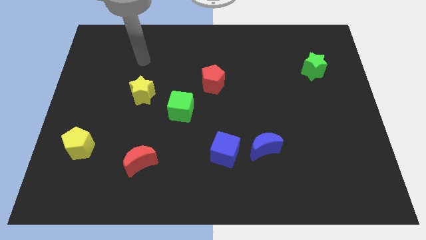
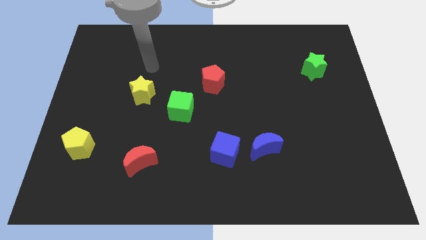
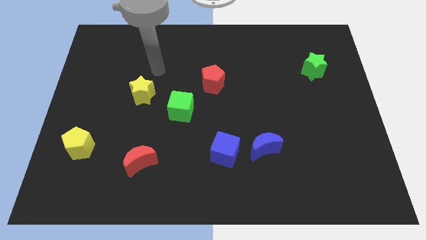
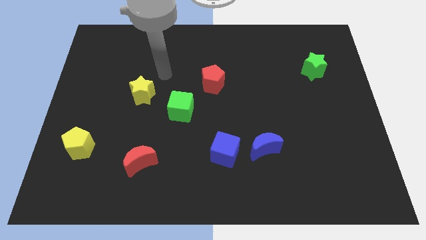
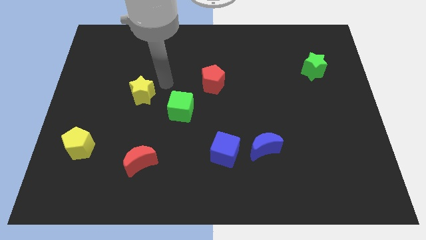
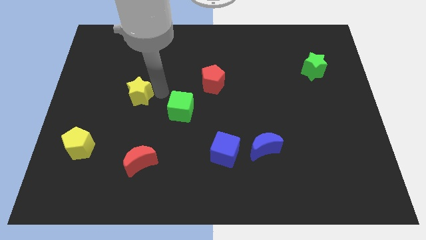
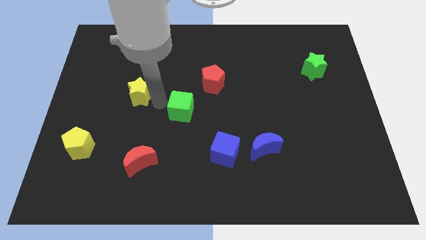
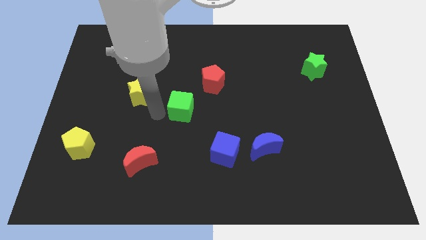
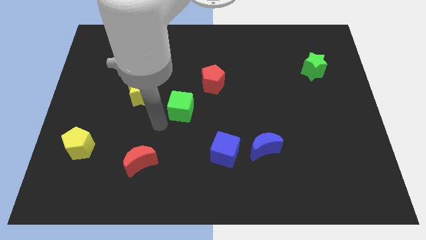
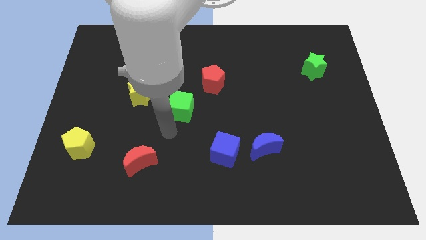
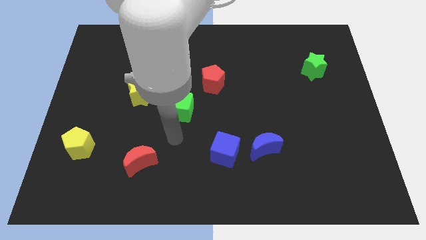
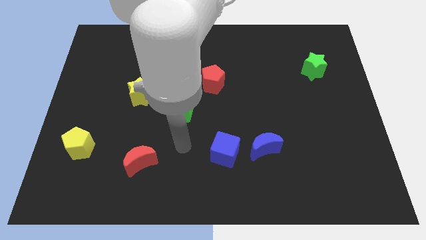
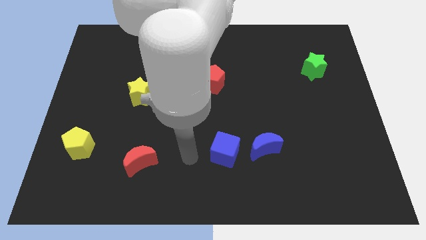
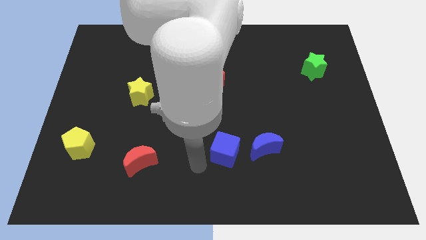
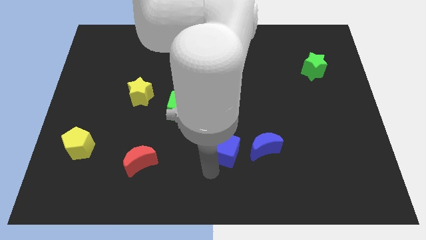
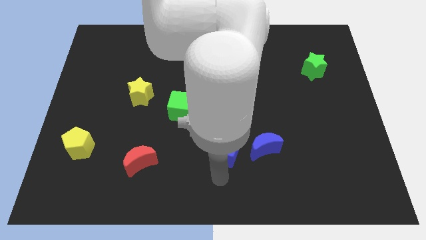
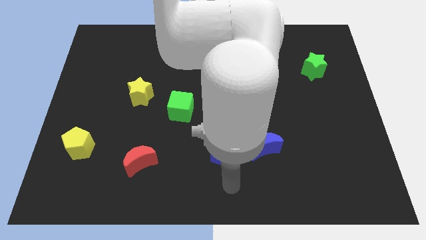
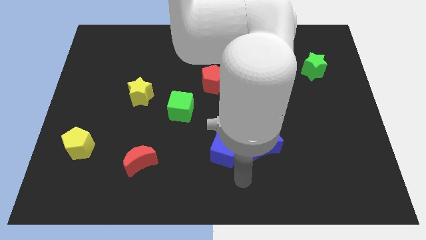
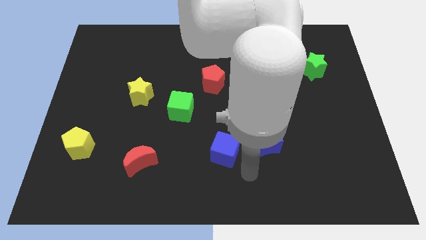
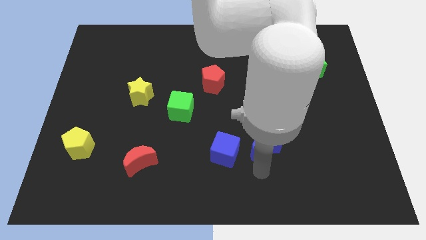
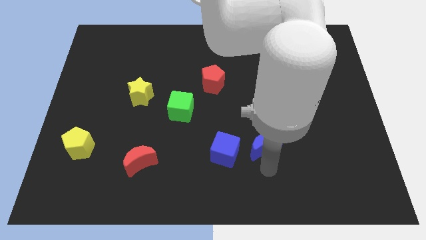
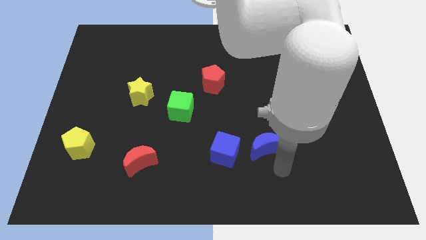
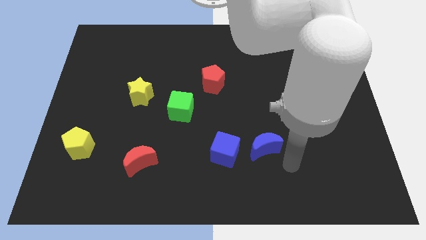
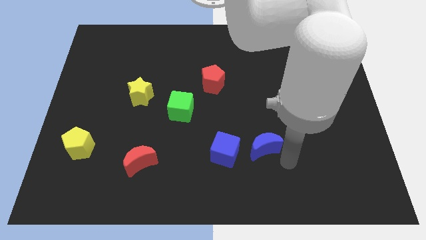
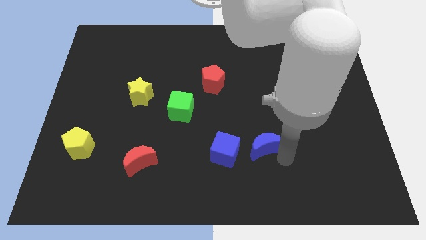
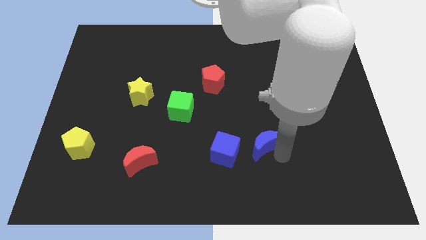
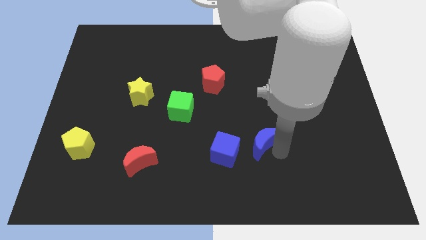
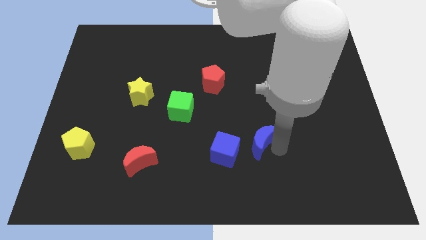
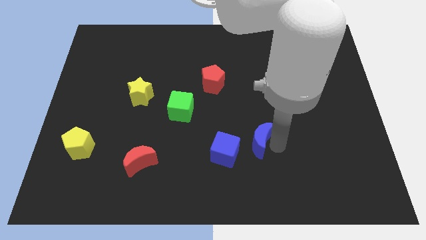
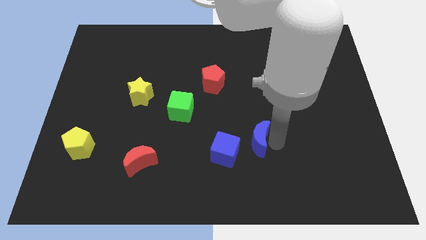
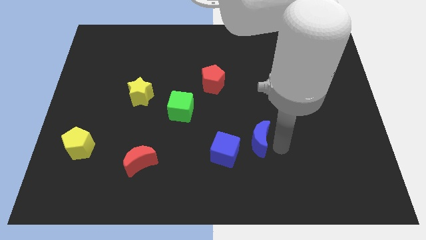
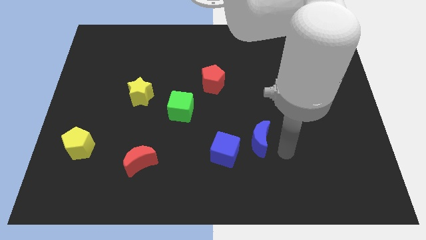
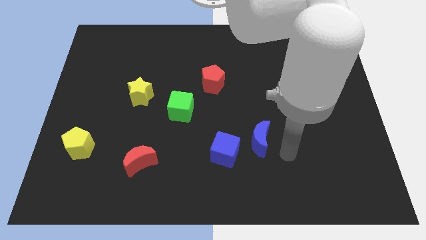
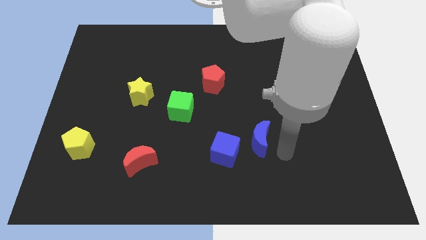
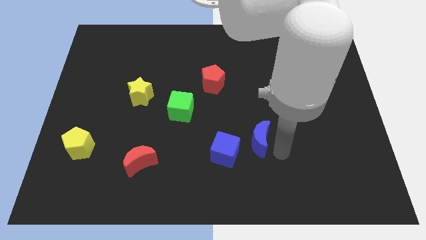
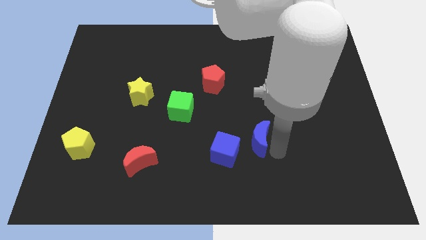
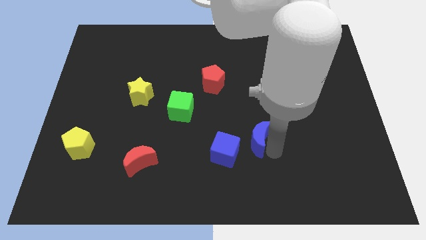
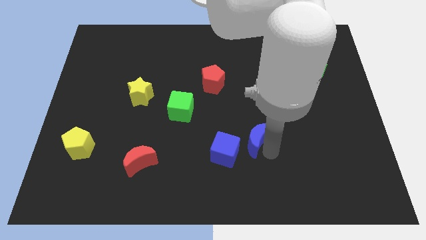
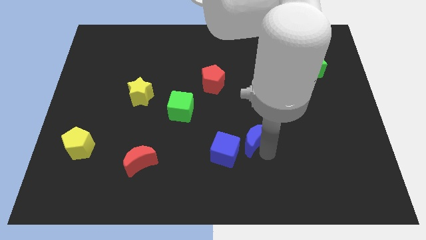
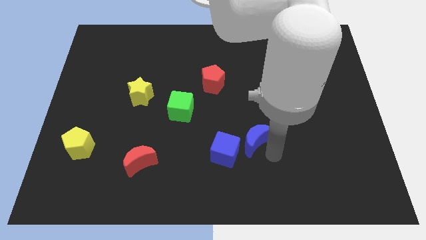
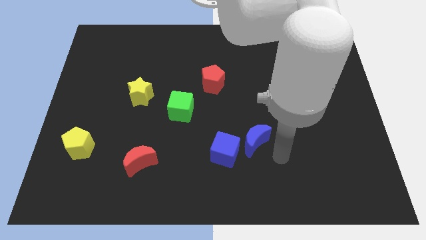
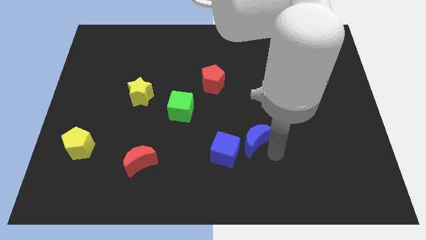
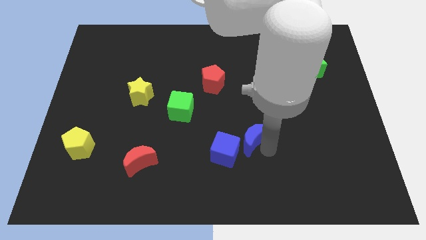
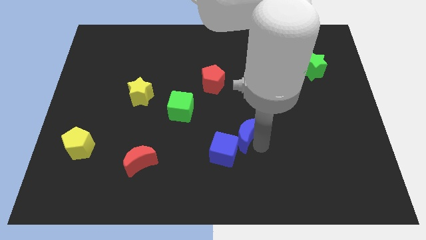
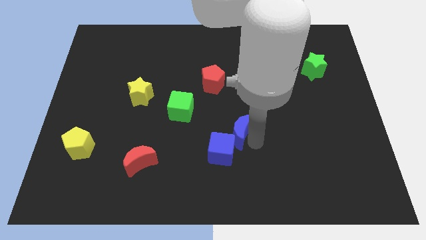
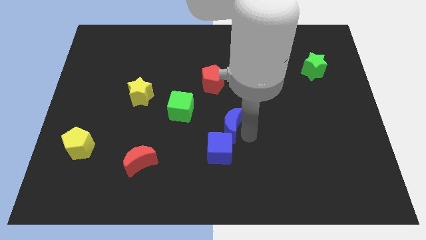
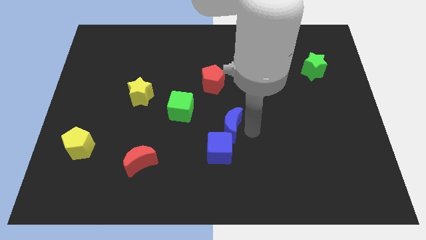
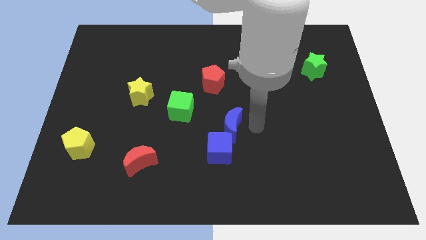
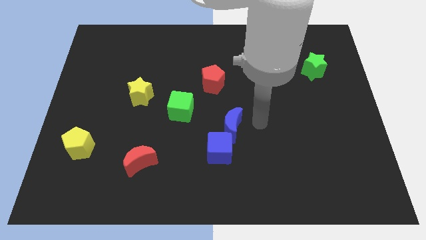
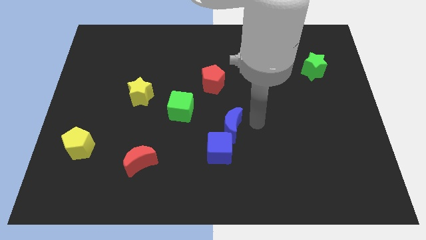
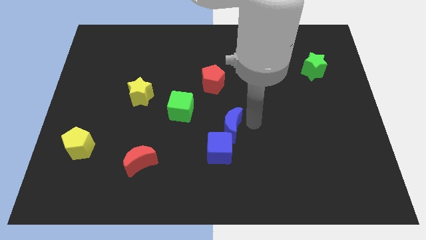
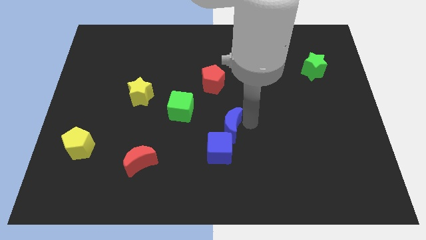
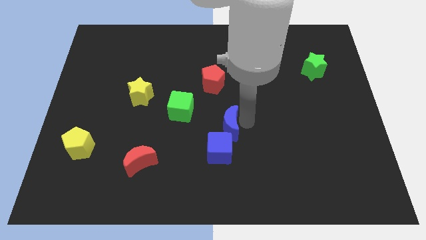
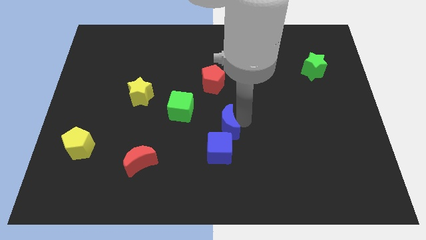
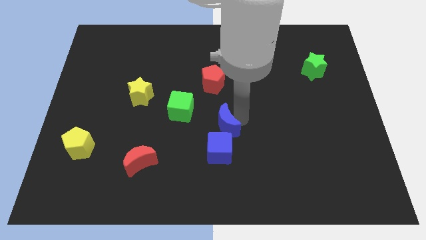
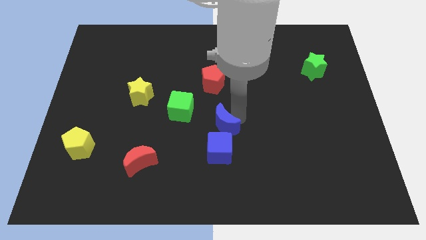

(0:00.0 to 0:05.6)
move the blue moon slightly to the left

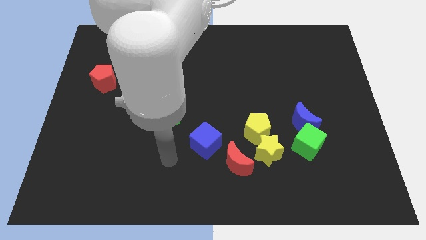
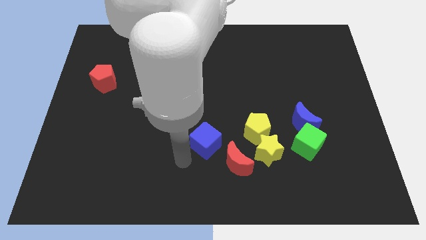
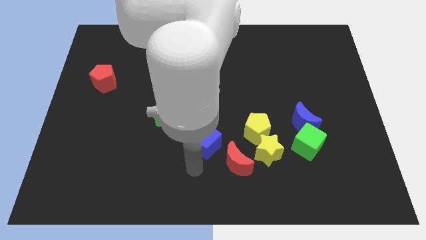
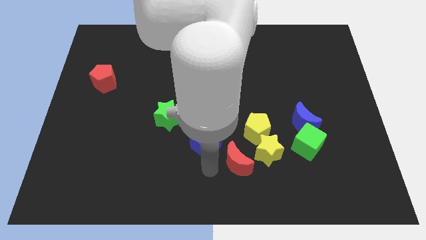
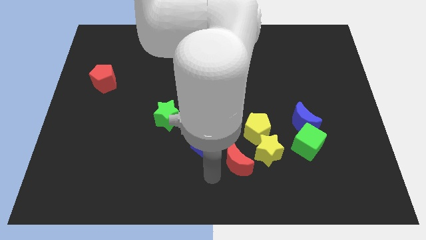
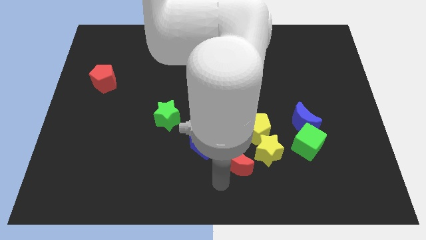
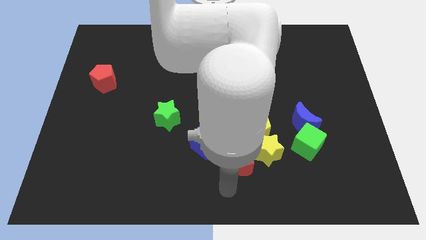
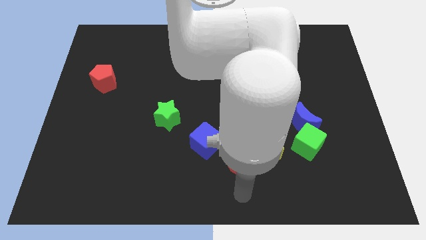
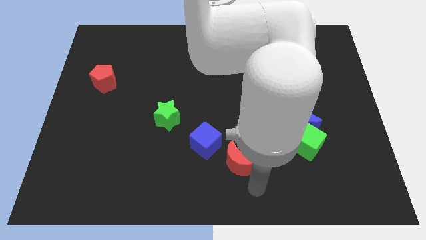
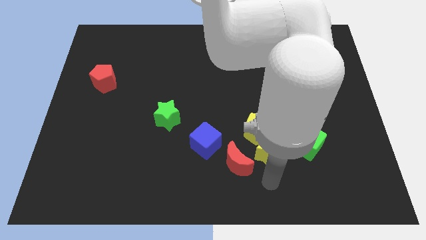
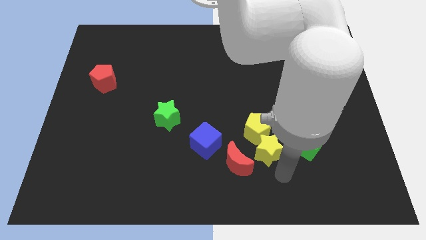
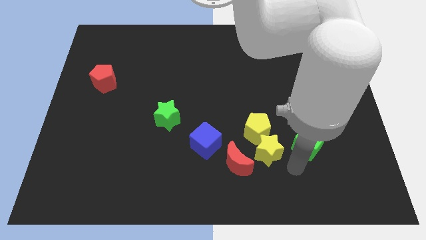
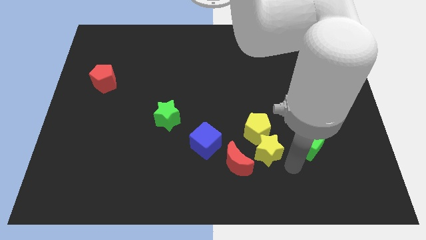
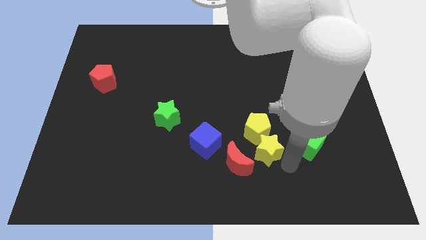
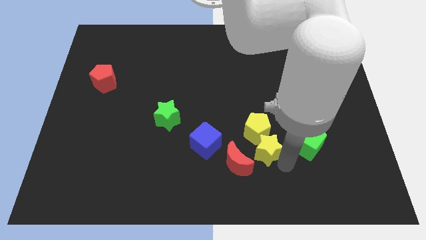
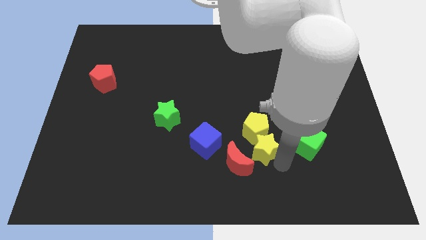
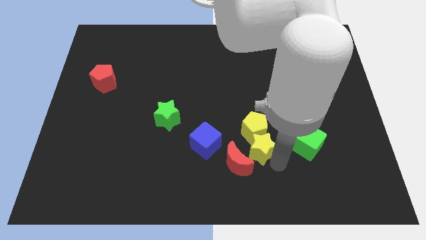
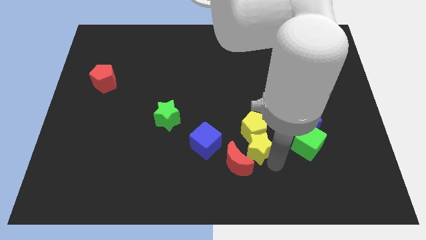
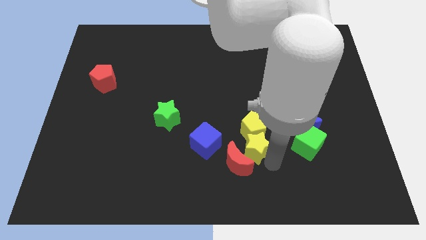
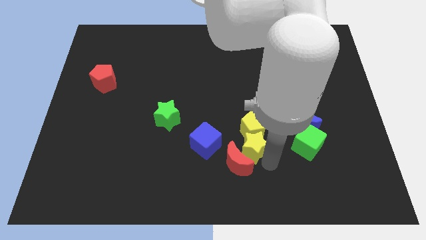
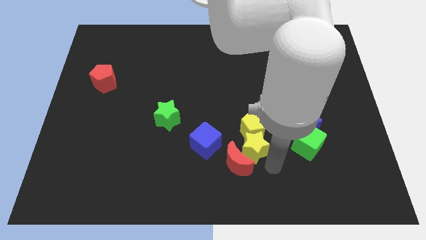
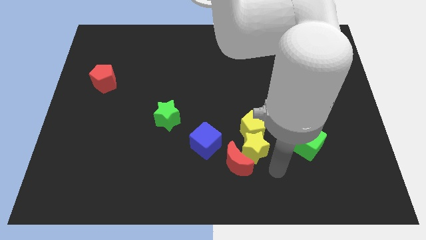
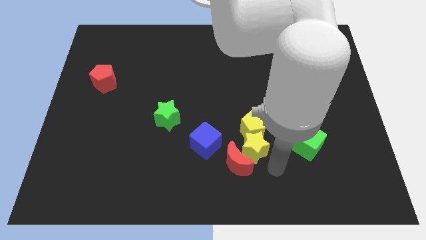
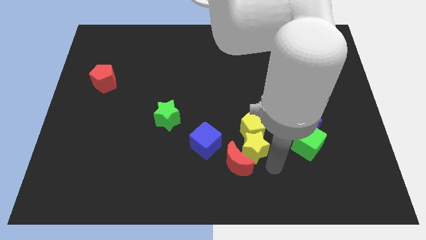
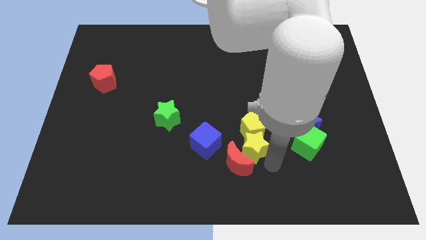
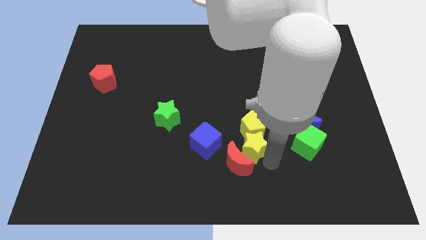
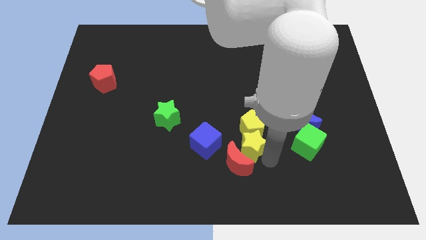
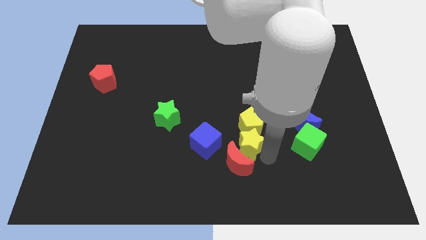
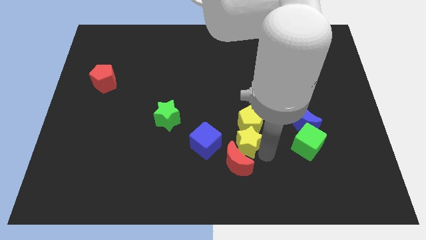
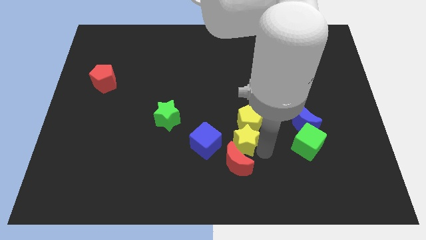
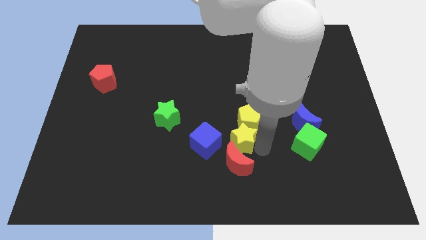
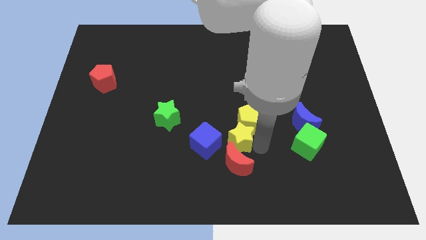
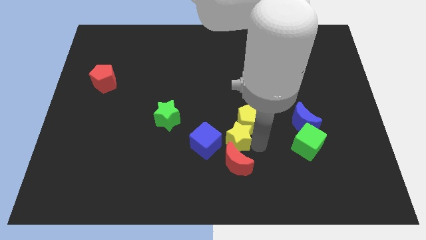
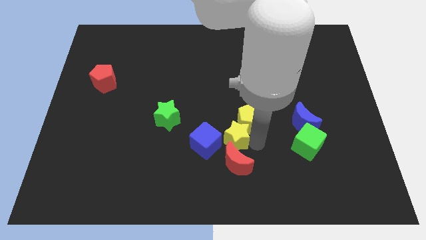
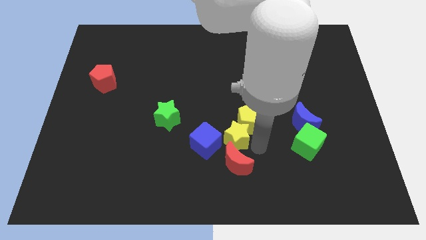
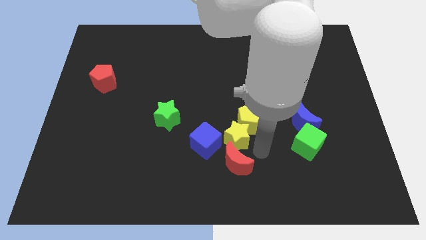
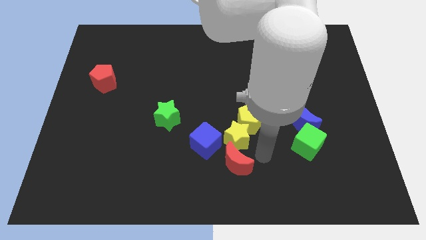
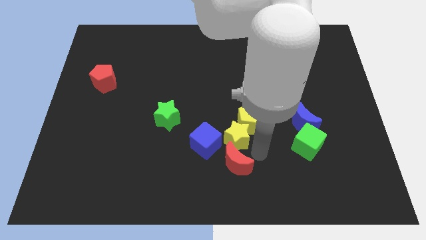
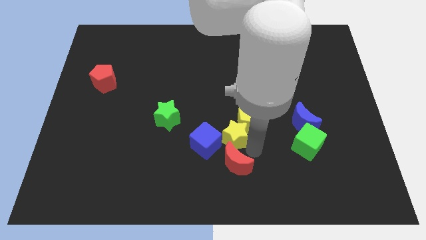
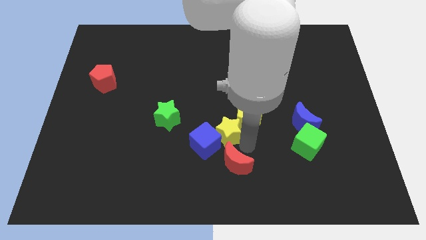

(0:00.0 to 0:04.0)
push the yellow star left a little
